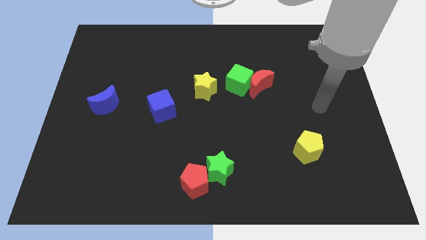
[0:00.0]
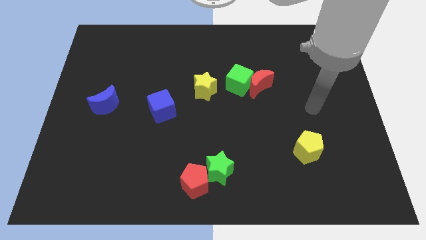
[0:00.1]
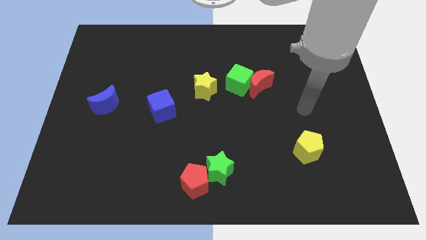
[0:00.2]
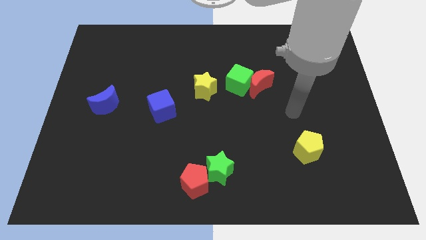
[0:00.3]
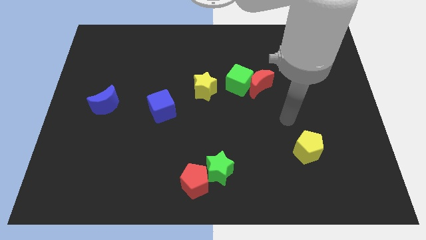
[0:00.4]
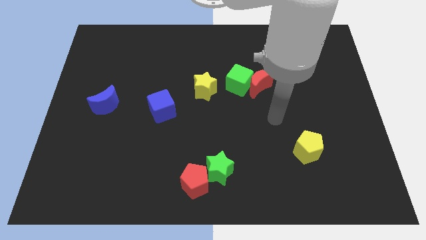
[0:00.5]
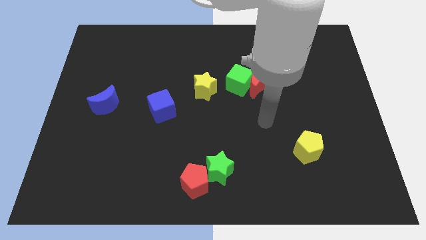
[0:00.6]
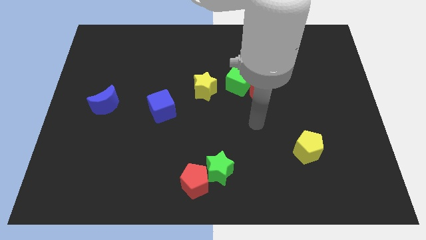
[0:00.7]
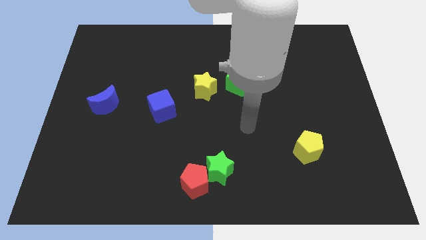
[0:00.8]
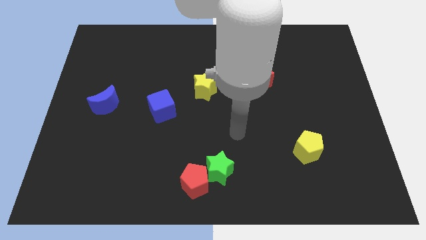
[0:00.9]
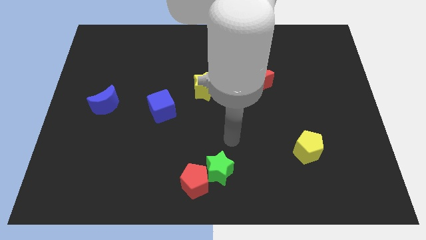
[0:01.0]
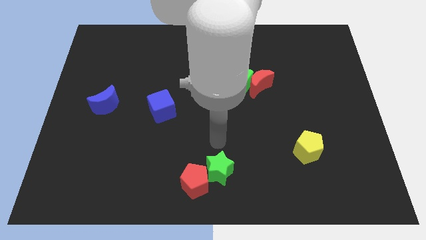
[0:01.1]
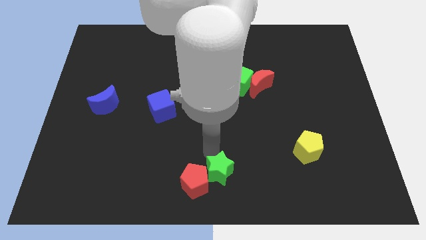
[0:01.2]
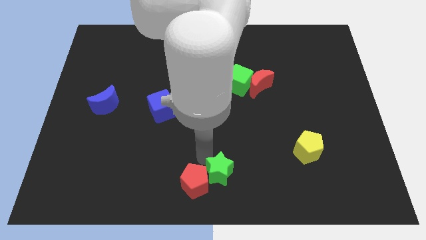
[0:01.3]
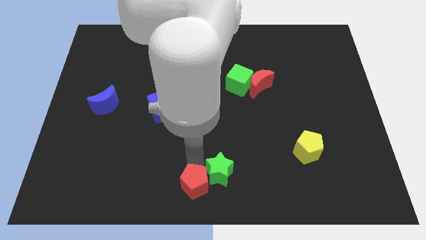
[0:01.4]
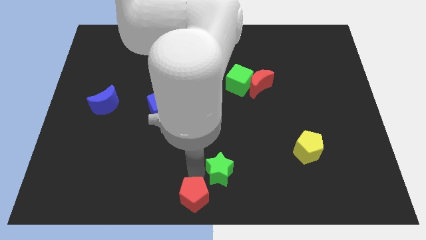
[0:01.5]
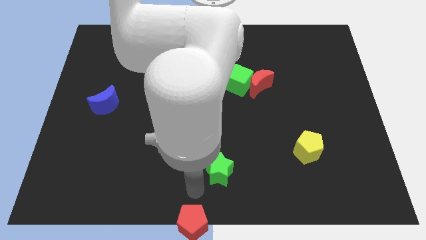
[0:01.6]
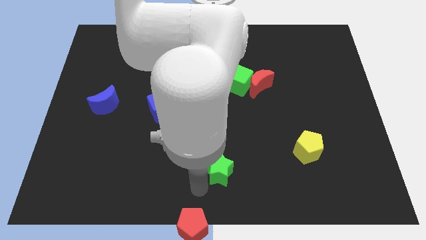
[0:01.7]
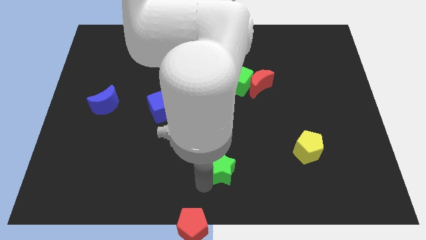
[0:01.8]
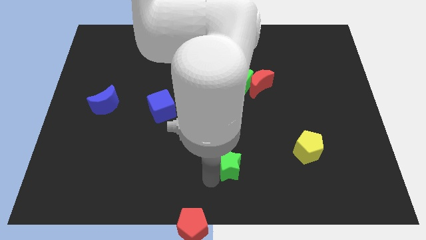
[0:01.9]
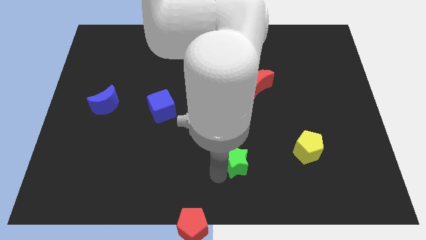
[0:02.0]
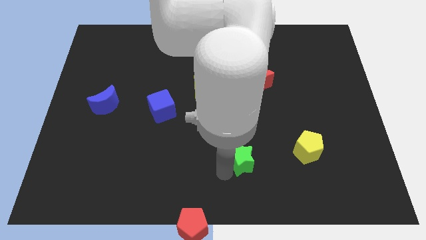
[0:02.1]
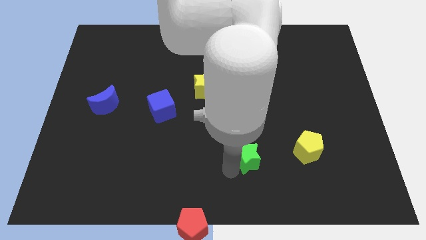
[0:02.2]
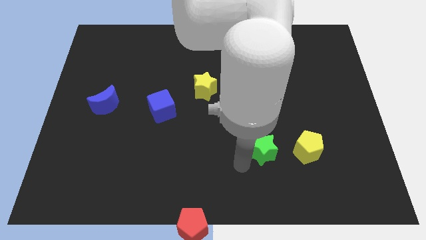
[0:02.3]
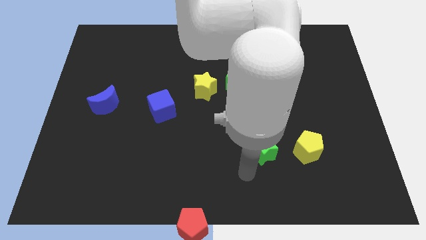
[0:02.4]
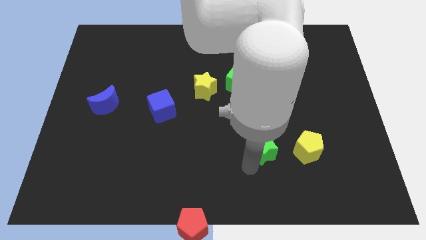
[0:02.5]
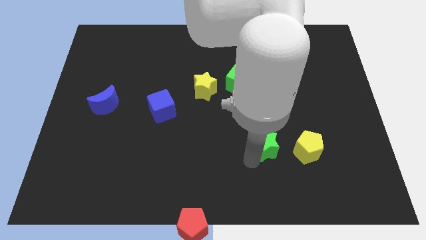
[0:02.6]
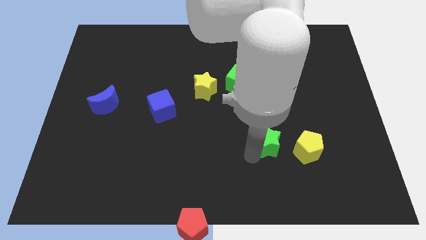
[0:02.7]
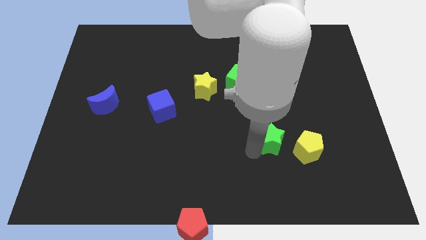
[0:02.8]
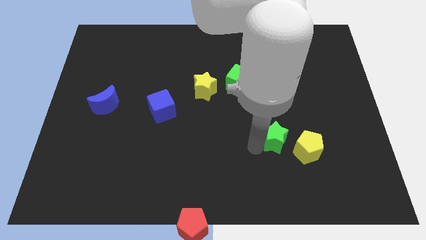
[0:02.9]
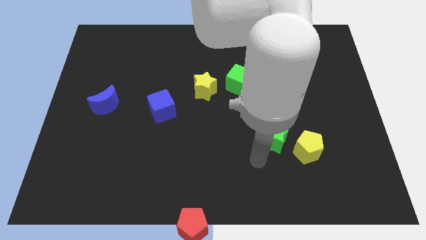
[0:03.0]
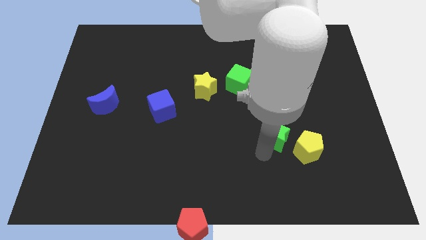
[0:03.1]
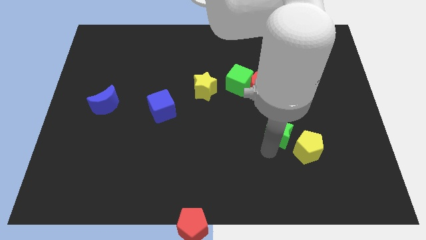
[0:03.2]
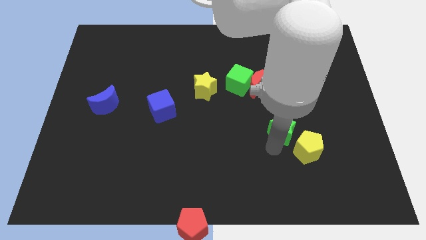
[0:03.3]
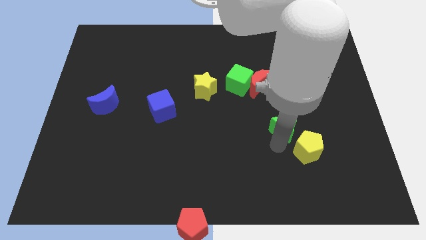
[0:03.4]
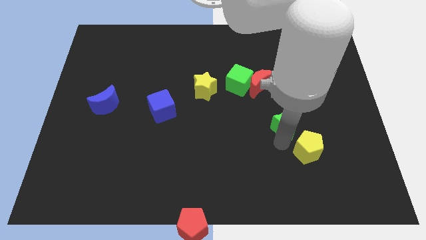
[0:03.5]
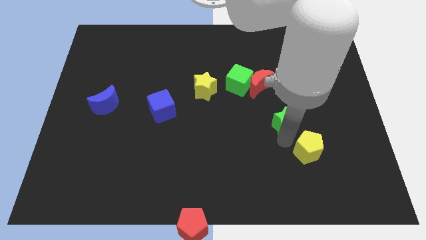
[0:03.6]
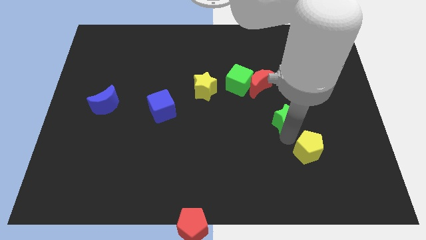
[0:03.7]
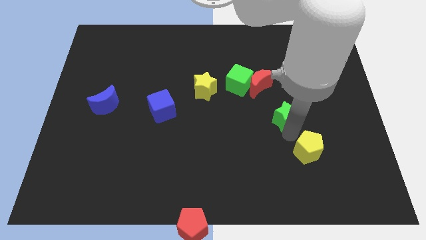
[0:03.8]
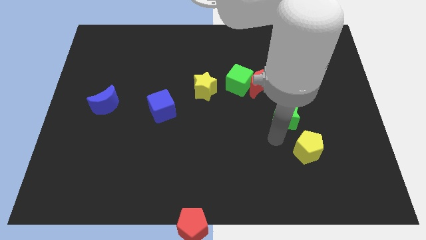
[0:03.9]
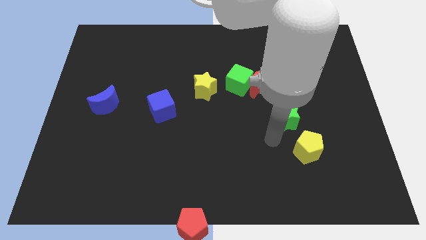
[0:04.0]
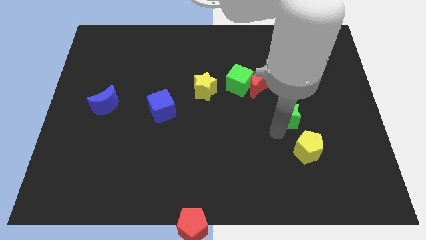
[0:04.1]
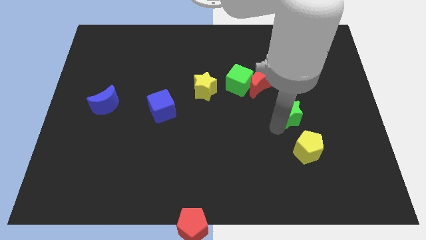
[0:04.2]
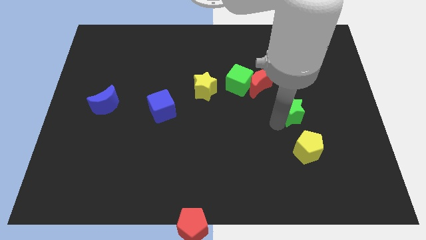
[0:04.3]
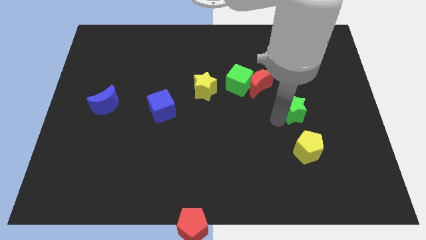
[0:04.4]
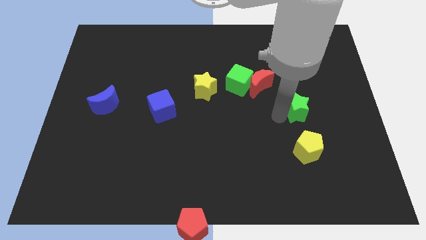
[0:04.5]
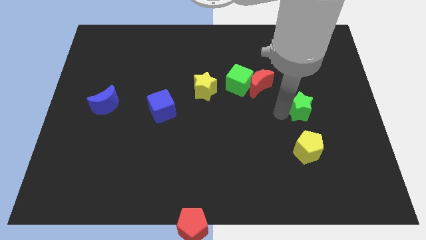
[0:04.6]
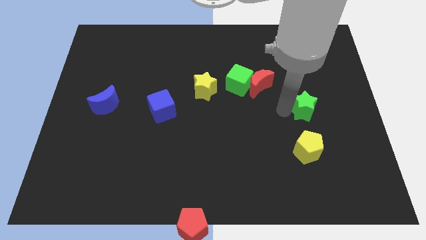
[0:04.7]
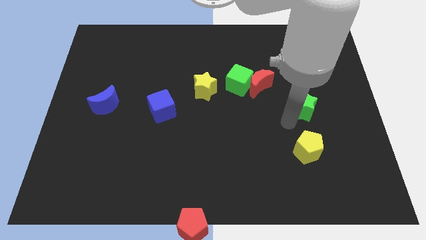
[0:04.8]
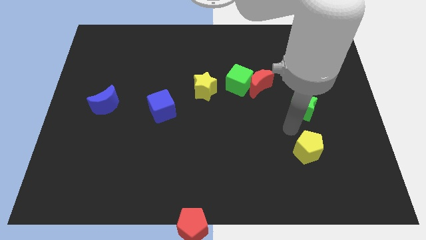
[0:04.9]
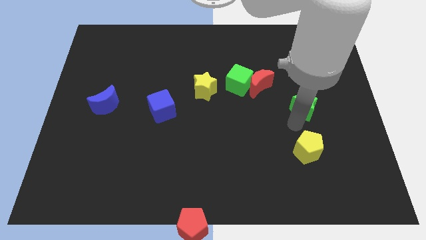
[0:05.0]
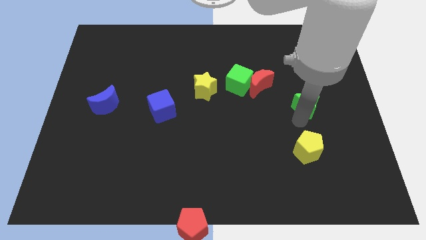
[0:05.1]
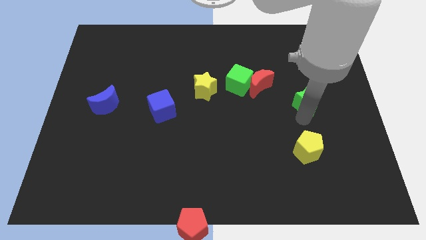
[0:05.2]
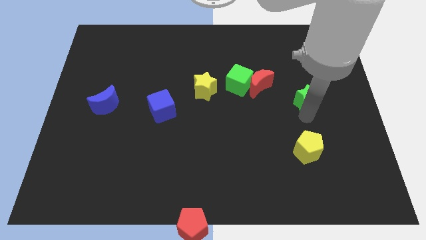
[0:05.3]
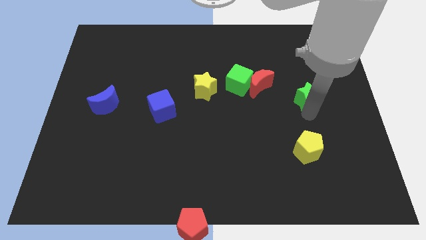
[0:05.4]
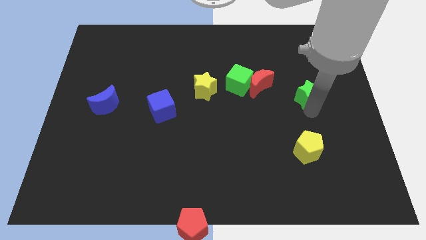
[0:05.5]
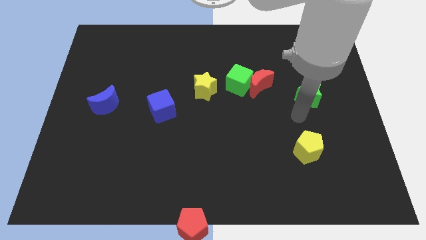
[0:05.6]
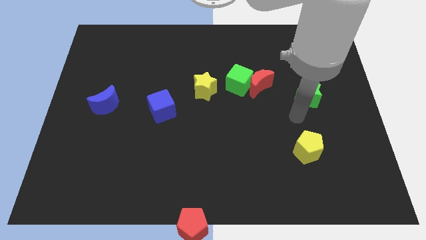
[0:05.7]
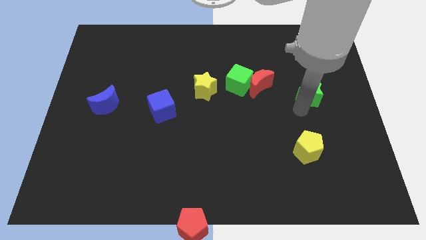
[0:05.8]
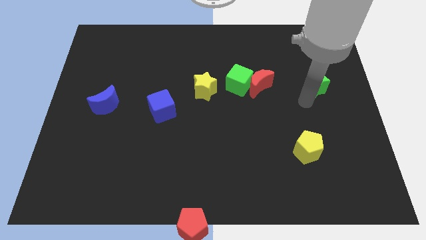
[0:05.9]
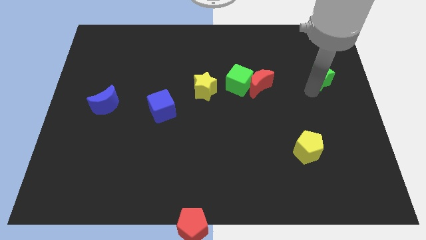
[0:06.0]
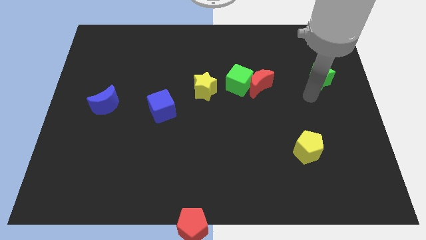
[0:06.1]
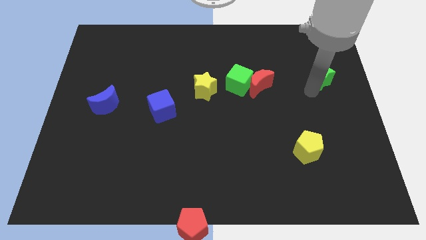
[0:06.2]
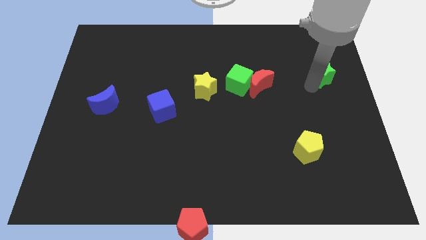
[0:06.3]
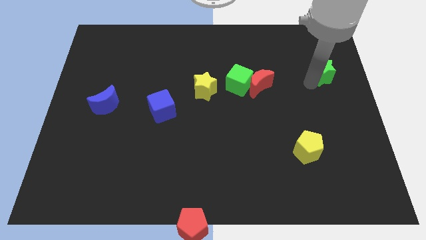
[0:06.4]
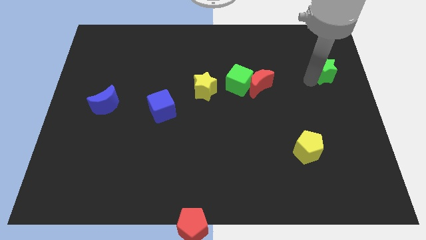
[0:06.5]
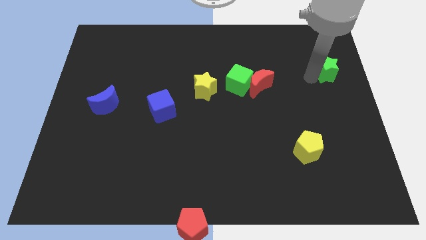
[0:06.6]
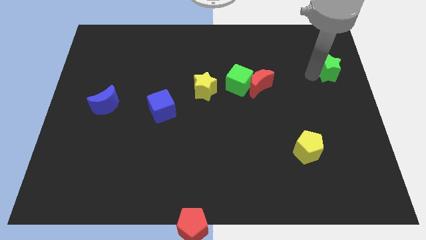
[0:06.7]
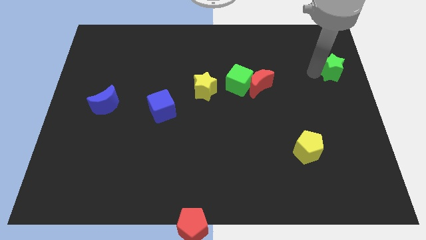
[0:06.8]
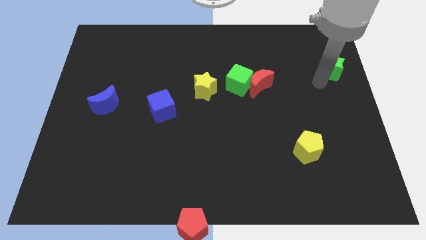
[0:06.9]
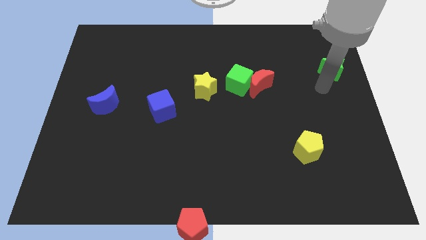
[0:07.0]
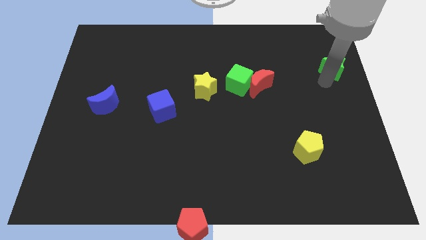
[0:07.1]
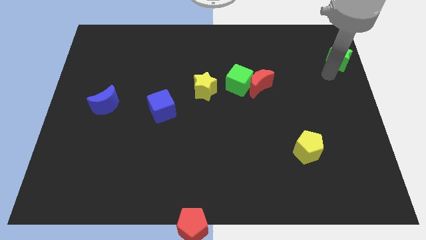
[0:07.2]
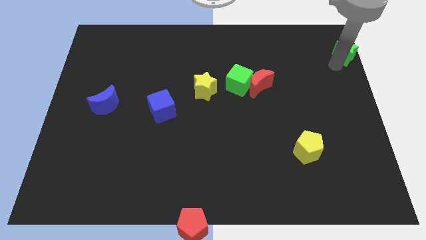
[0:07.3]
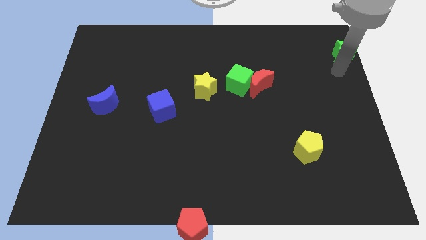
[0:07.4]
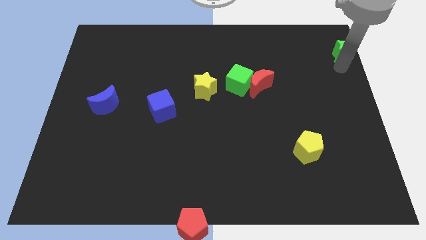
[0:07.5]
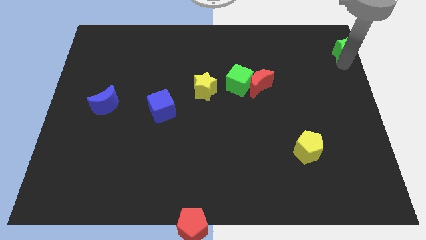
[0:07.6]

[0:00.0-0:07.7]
move the green star to the top right corner
